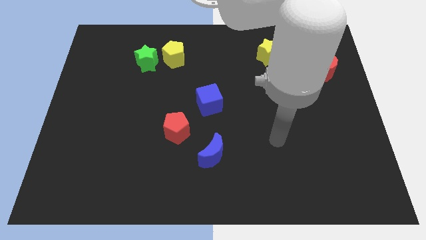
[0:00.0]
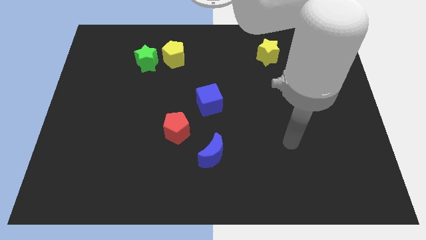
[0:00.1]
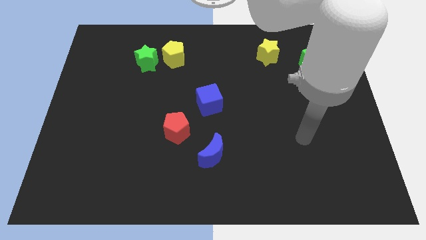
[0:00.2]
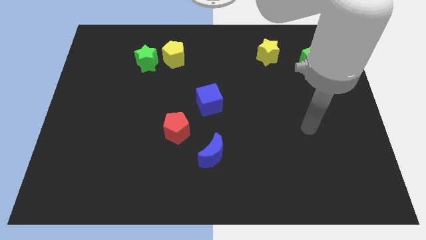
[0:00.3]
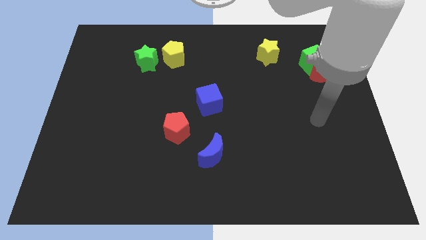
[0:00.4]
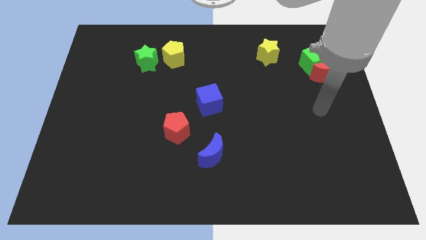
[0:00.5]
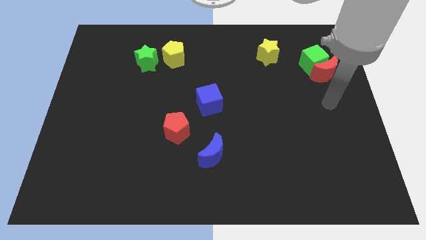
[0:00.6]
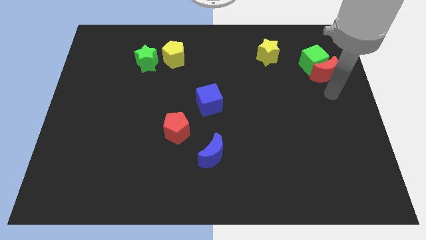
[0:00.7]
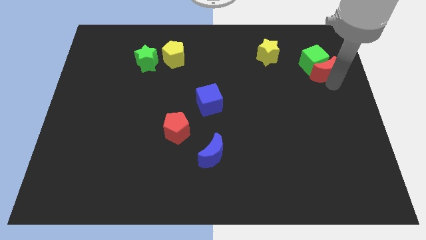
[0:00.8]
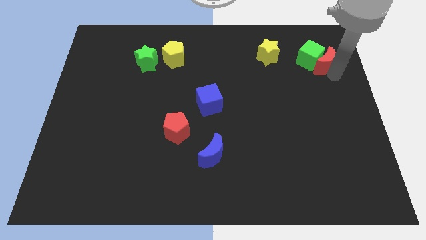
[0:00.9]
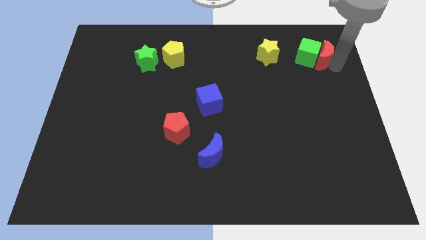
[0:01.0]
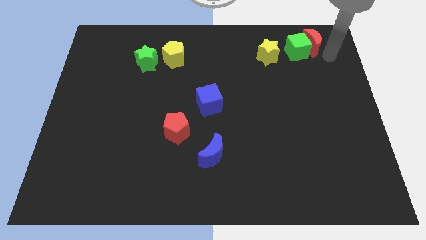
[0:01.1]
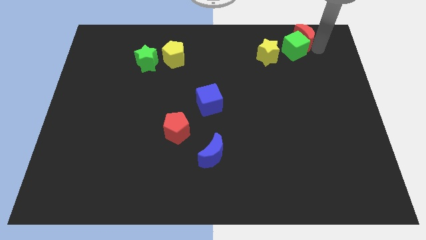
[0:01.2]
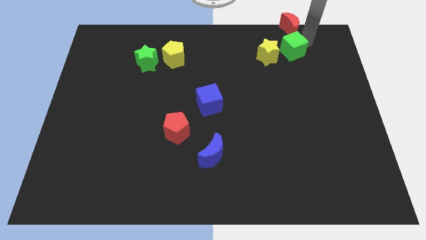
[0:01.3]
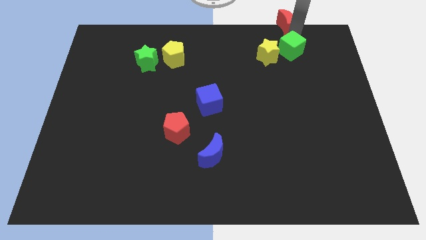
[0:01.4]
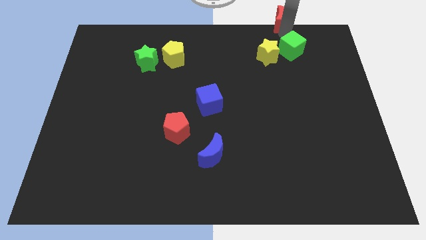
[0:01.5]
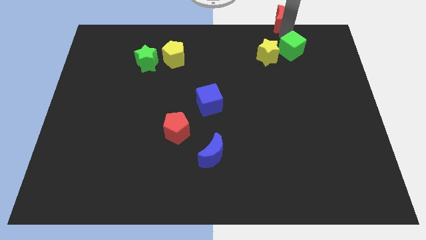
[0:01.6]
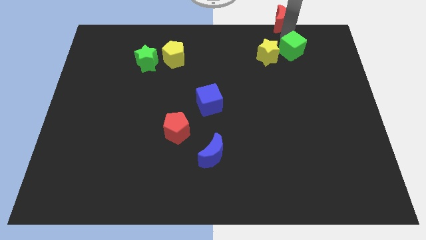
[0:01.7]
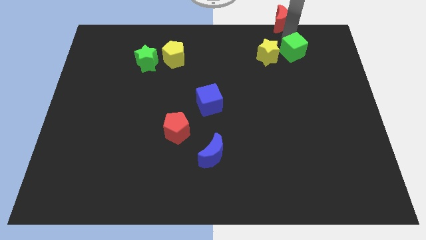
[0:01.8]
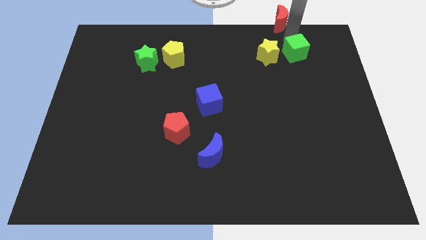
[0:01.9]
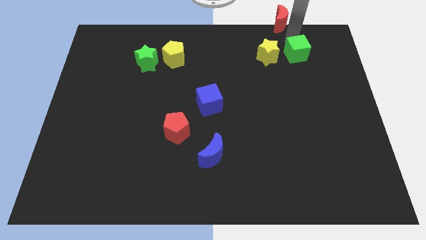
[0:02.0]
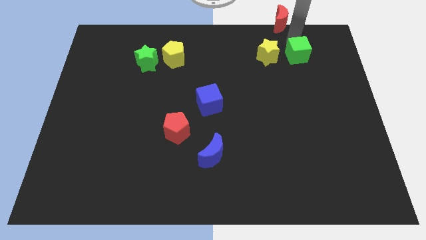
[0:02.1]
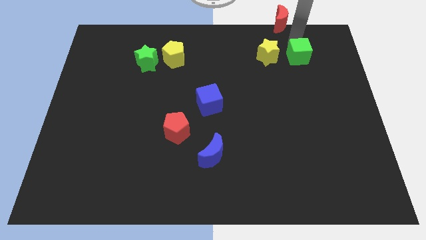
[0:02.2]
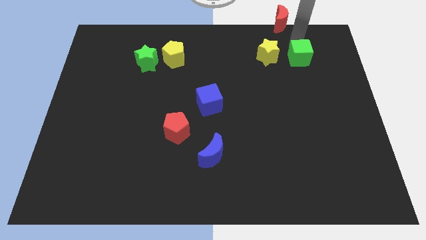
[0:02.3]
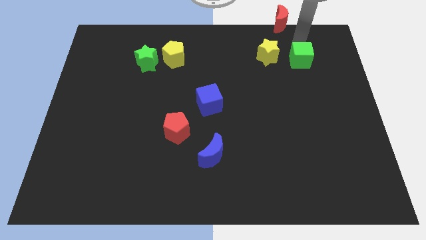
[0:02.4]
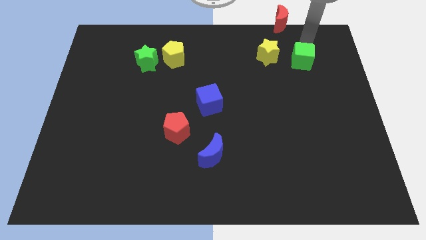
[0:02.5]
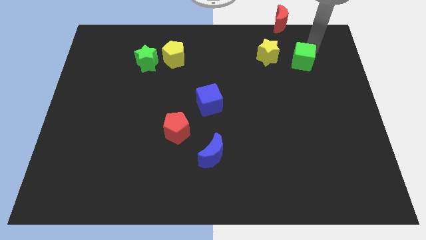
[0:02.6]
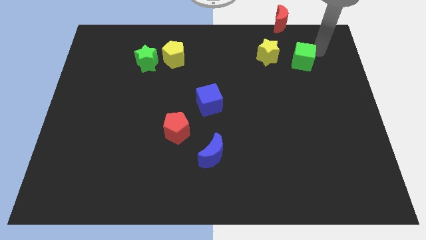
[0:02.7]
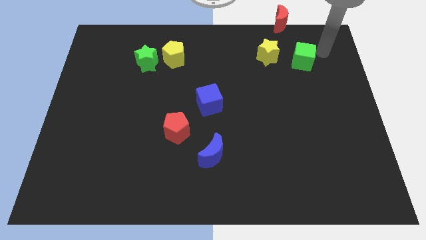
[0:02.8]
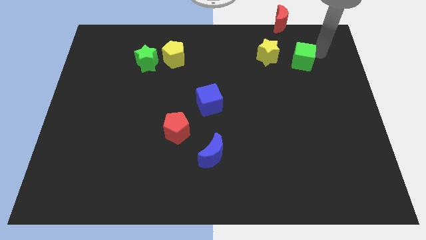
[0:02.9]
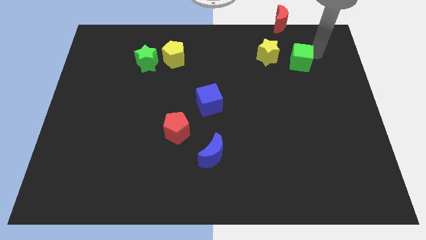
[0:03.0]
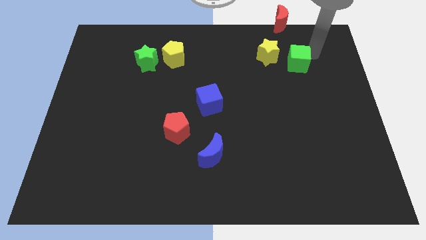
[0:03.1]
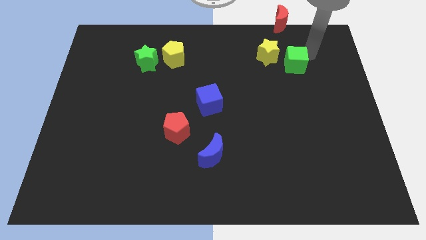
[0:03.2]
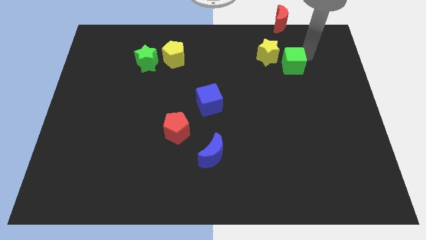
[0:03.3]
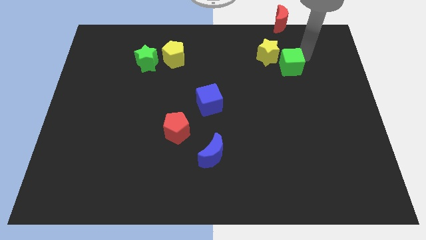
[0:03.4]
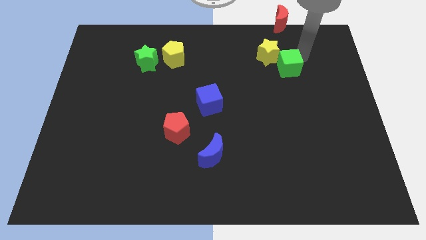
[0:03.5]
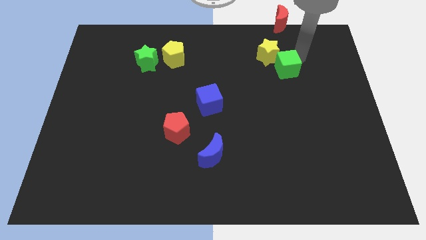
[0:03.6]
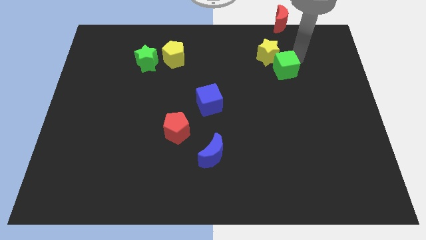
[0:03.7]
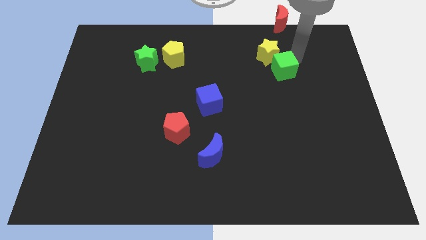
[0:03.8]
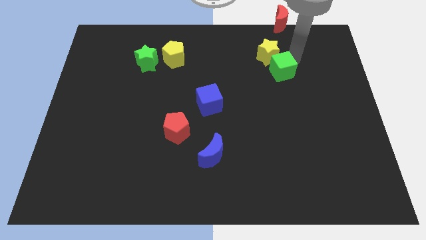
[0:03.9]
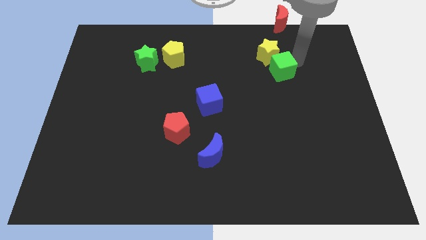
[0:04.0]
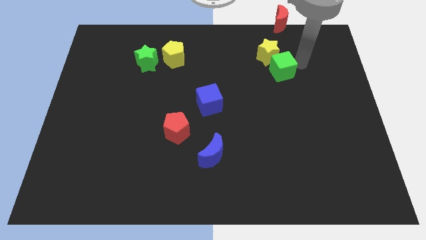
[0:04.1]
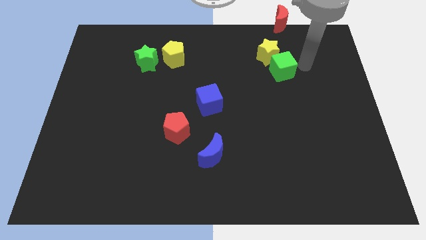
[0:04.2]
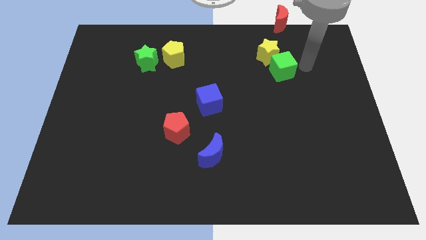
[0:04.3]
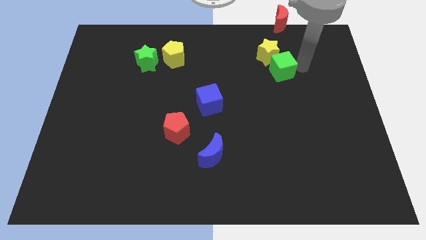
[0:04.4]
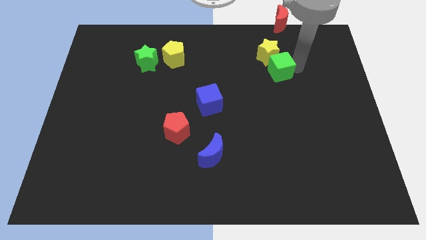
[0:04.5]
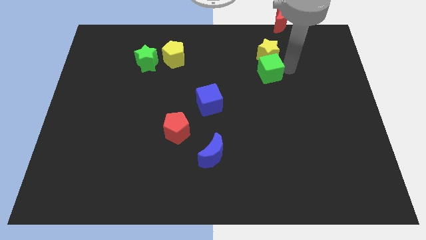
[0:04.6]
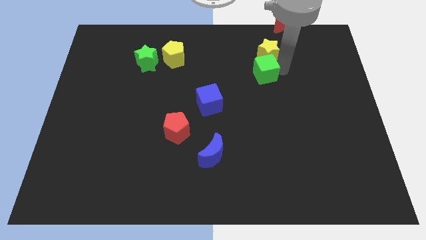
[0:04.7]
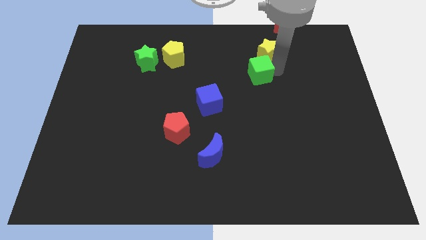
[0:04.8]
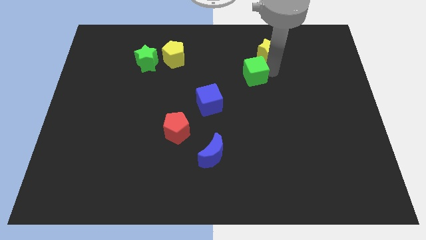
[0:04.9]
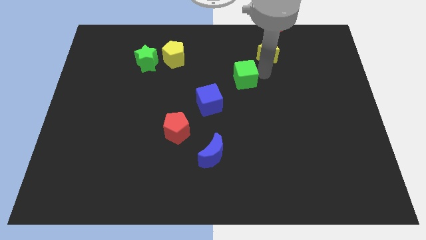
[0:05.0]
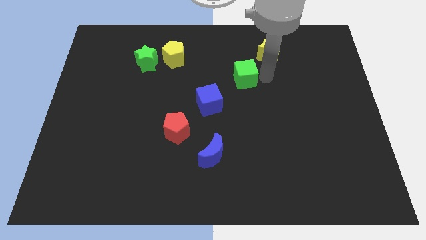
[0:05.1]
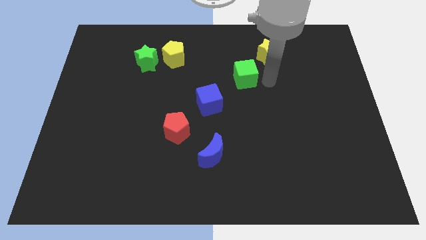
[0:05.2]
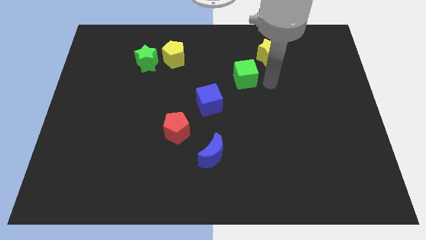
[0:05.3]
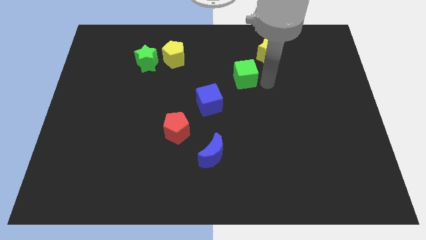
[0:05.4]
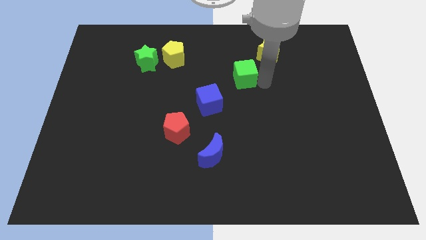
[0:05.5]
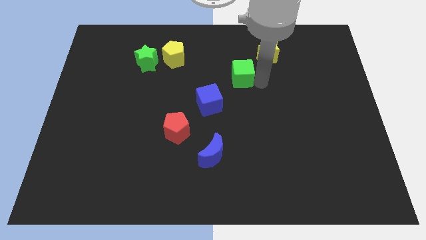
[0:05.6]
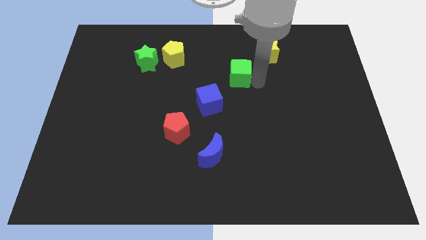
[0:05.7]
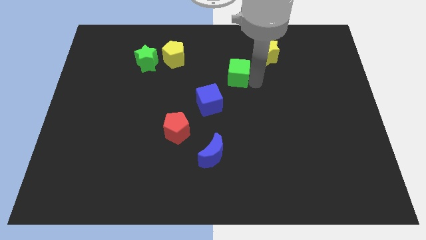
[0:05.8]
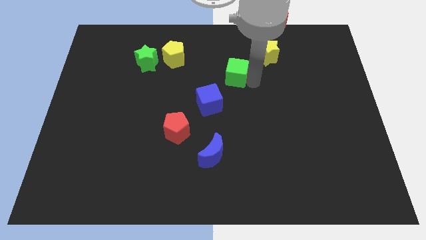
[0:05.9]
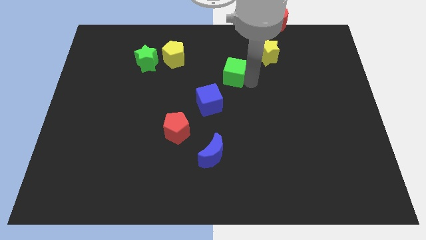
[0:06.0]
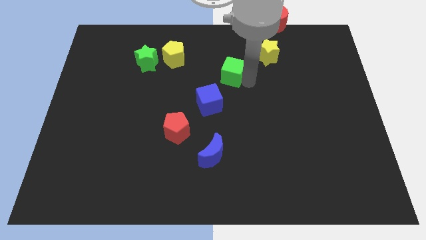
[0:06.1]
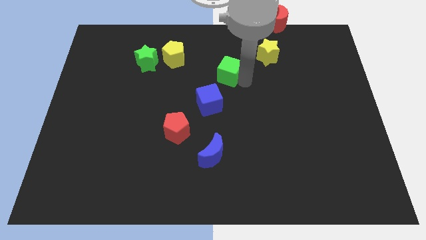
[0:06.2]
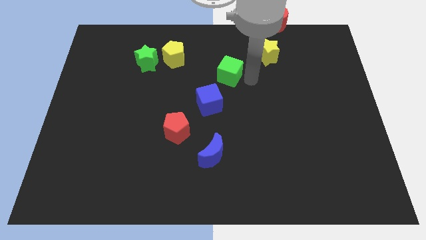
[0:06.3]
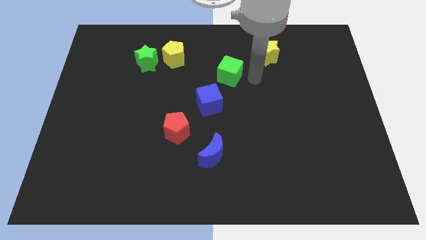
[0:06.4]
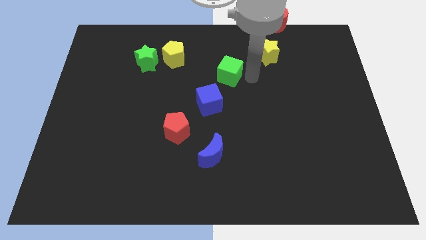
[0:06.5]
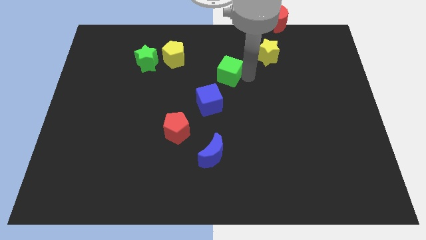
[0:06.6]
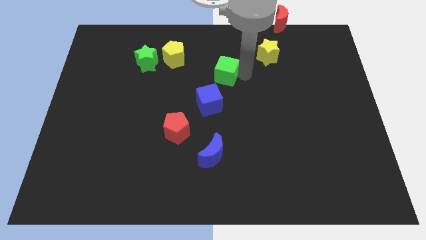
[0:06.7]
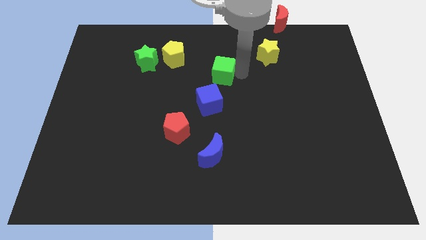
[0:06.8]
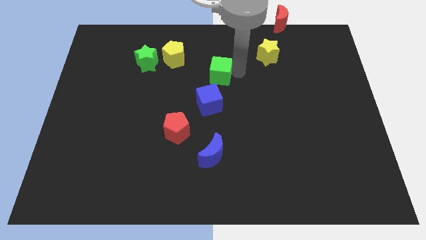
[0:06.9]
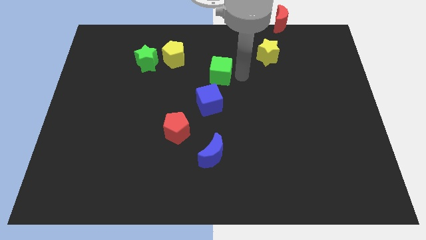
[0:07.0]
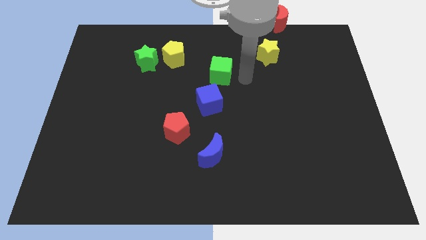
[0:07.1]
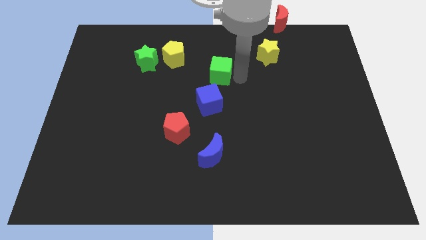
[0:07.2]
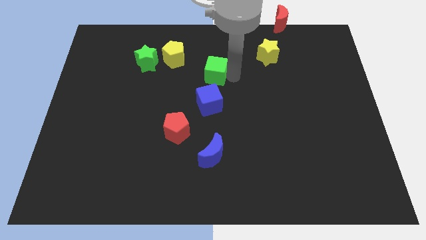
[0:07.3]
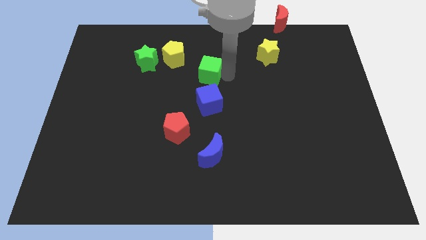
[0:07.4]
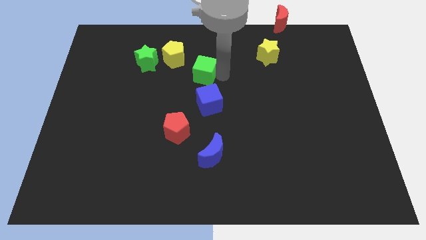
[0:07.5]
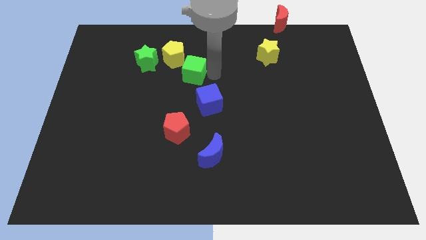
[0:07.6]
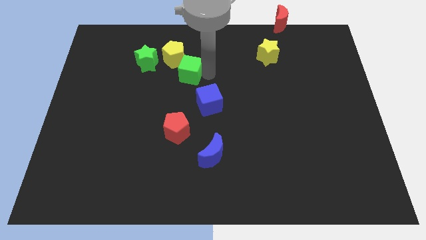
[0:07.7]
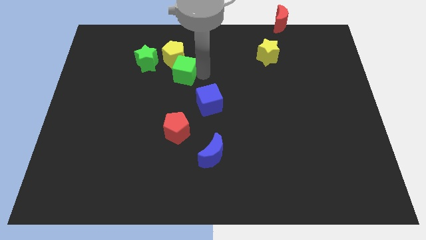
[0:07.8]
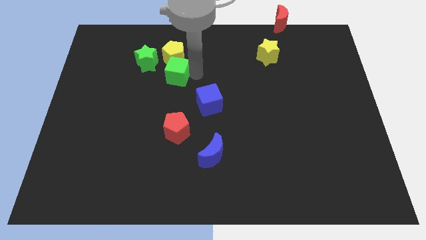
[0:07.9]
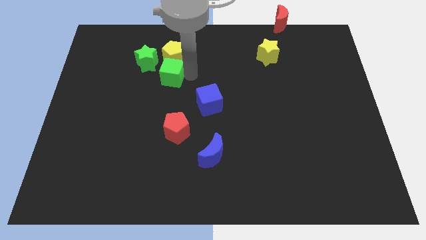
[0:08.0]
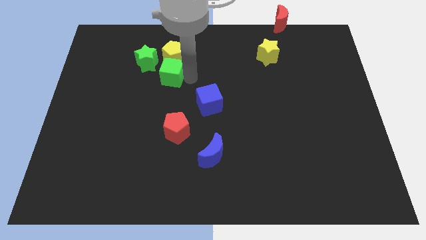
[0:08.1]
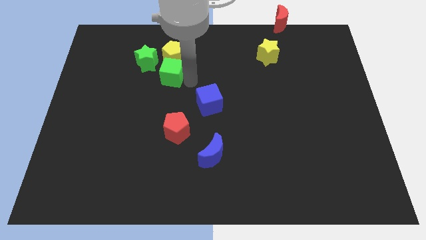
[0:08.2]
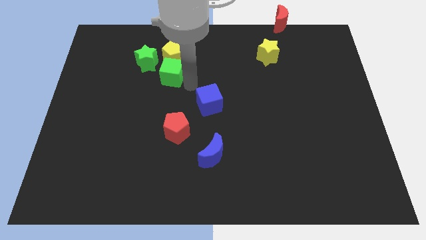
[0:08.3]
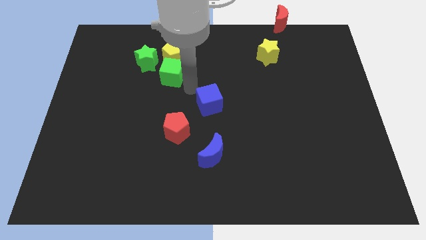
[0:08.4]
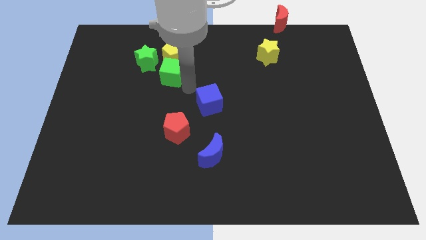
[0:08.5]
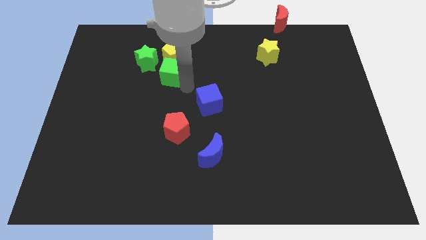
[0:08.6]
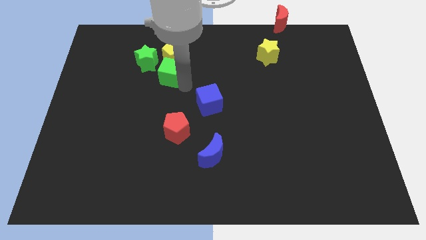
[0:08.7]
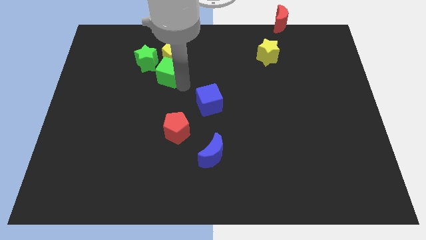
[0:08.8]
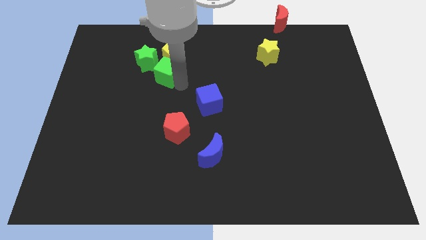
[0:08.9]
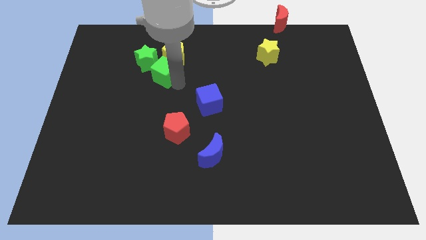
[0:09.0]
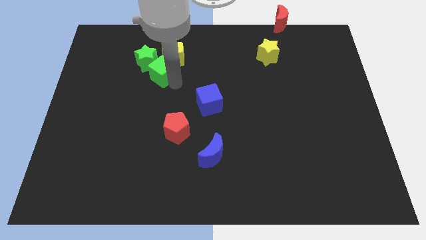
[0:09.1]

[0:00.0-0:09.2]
put the green cube to the green star
